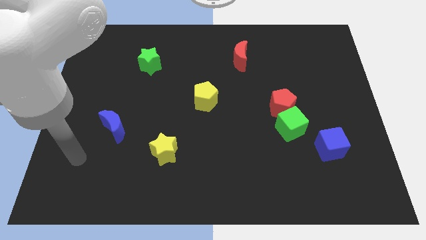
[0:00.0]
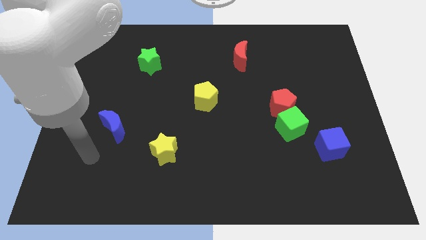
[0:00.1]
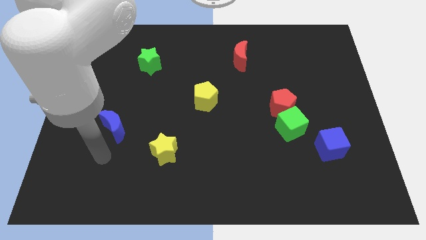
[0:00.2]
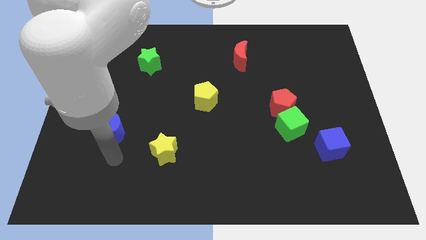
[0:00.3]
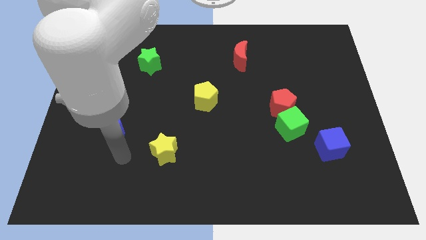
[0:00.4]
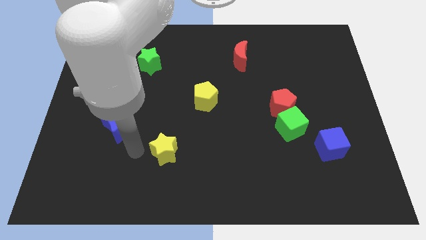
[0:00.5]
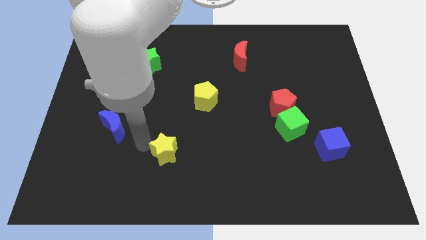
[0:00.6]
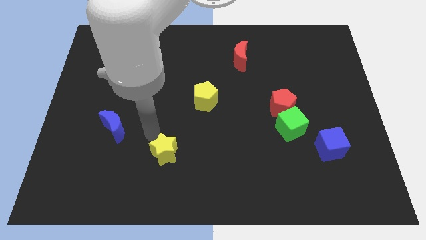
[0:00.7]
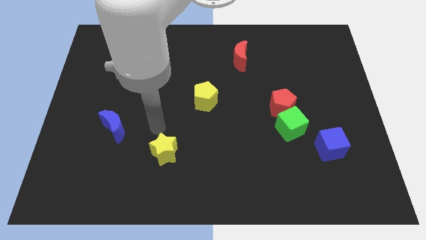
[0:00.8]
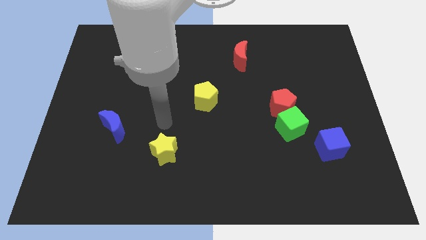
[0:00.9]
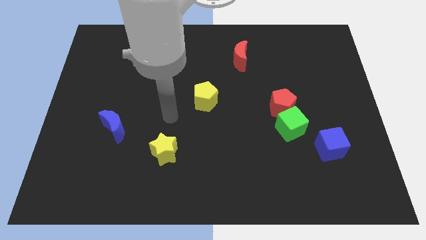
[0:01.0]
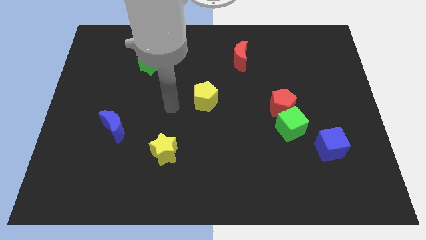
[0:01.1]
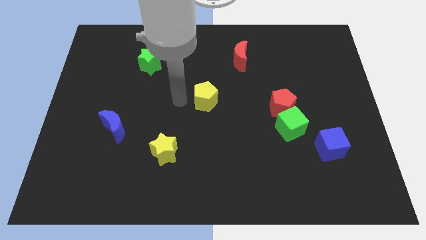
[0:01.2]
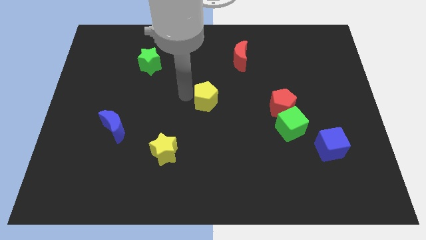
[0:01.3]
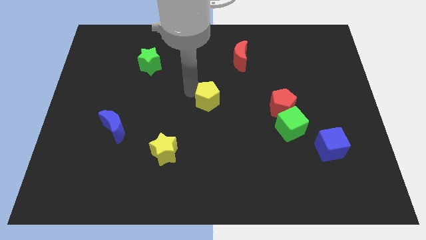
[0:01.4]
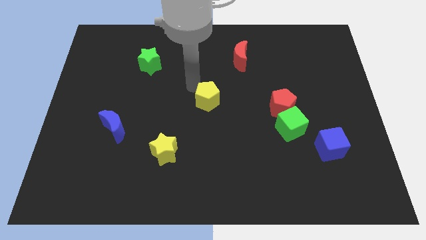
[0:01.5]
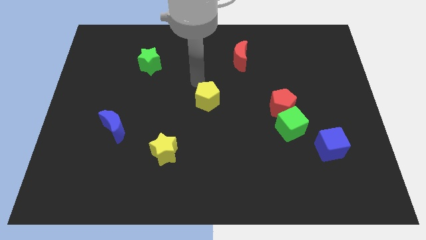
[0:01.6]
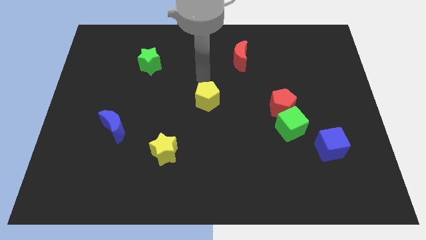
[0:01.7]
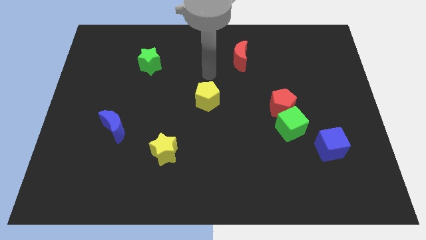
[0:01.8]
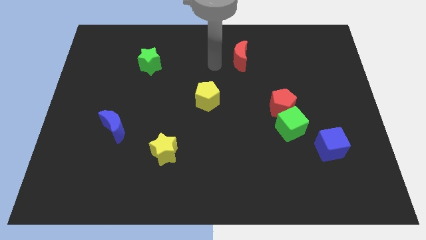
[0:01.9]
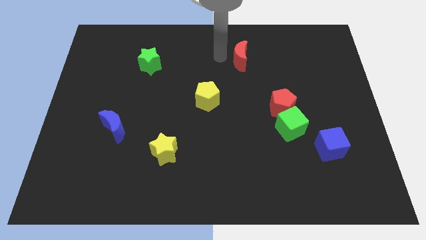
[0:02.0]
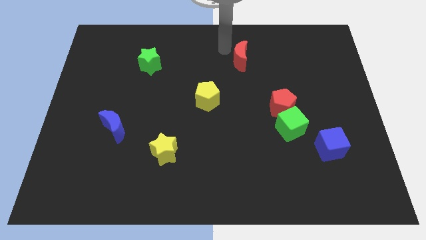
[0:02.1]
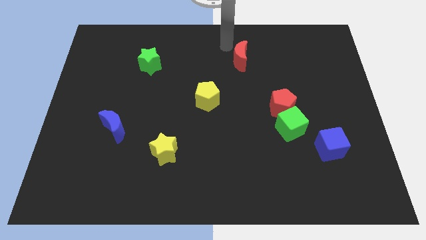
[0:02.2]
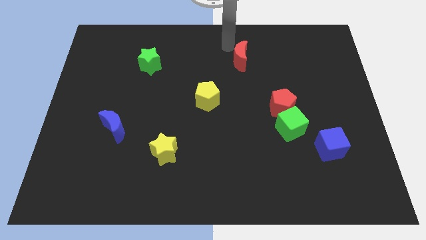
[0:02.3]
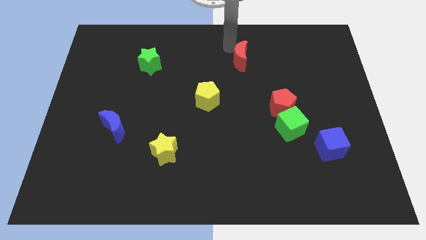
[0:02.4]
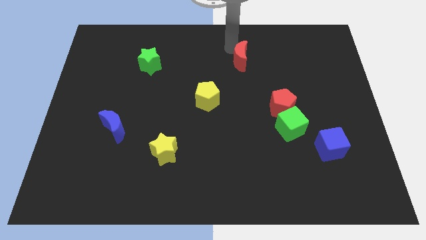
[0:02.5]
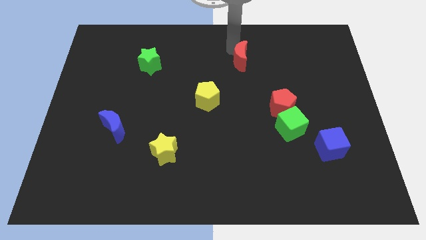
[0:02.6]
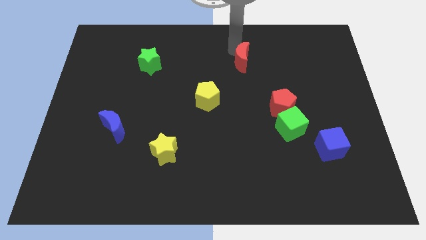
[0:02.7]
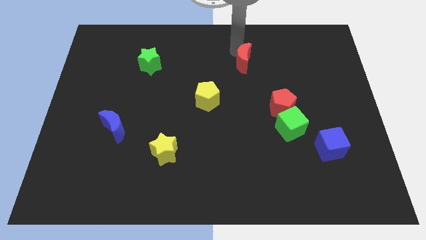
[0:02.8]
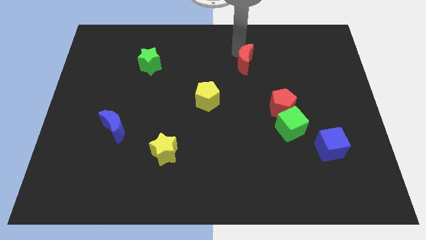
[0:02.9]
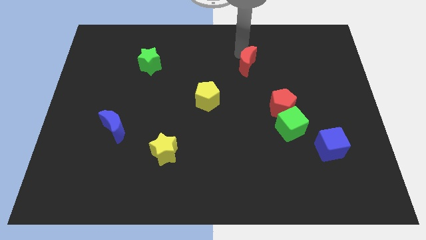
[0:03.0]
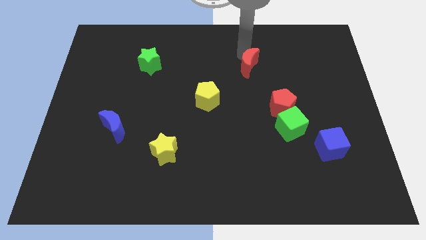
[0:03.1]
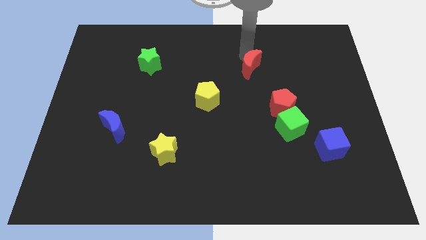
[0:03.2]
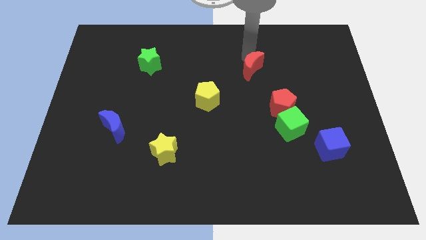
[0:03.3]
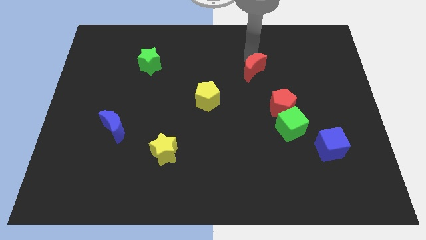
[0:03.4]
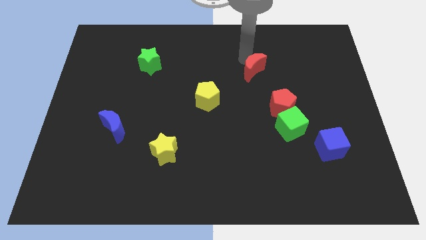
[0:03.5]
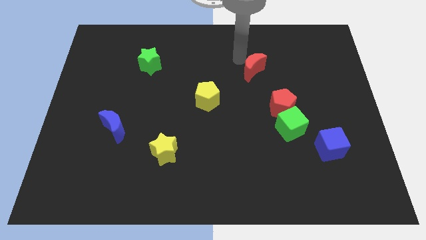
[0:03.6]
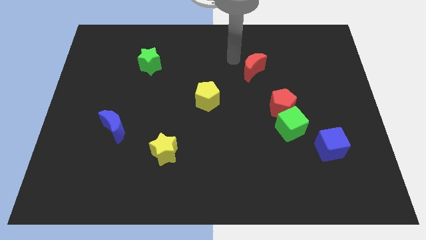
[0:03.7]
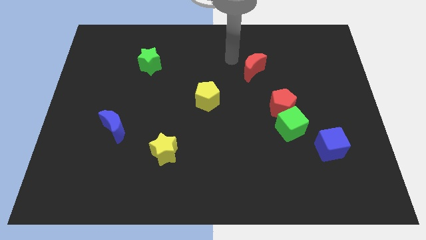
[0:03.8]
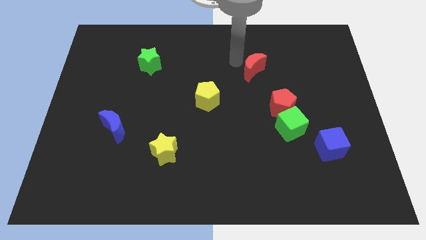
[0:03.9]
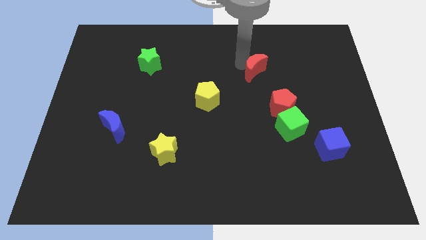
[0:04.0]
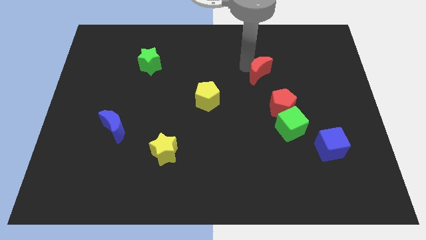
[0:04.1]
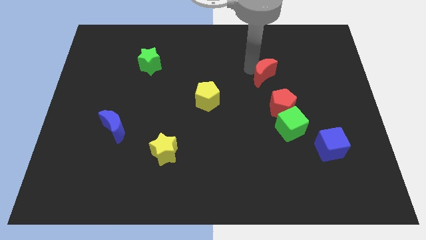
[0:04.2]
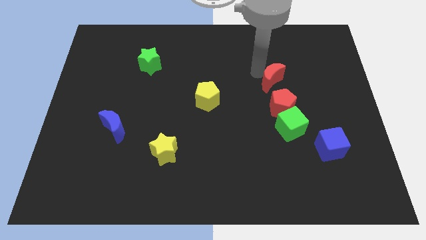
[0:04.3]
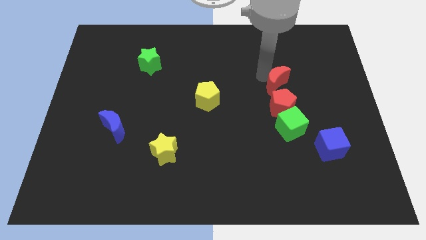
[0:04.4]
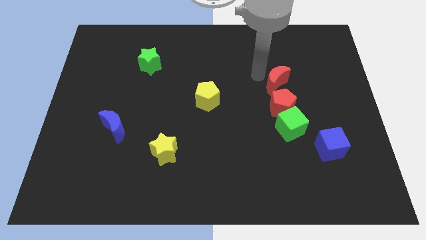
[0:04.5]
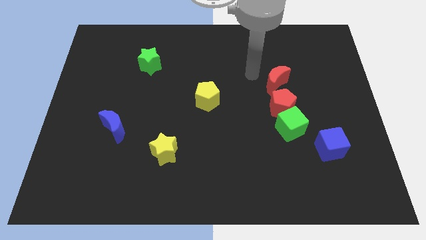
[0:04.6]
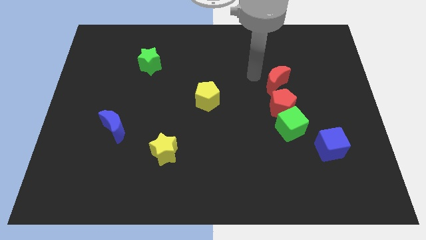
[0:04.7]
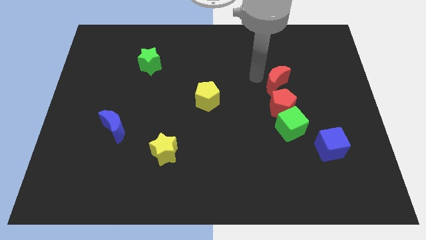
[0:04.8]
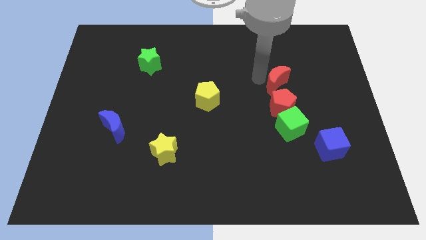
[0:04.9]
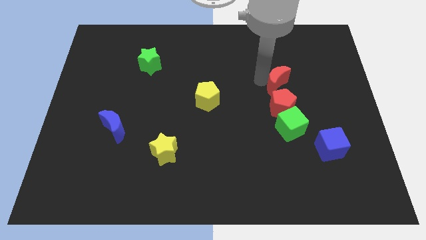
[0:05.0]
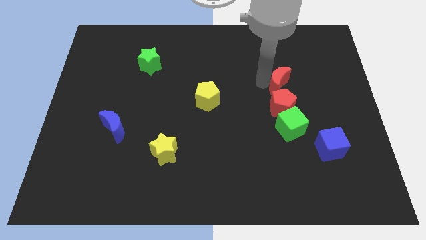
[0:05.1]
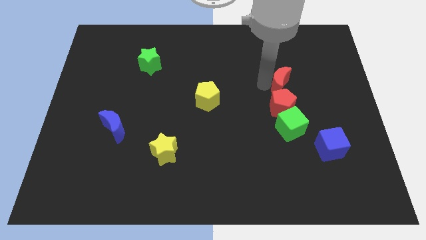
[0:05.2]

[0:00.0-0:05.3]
put the red moon to the top right side of the red pentagon

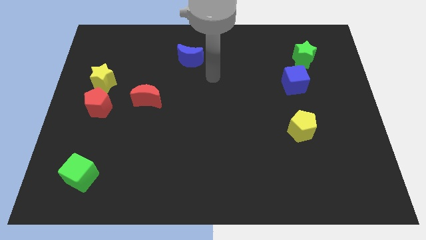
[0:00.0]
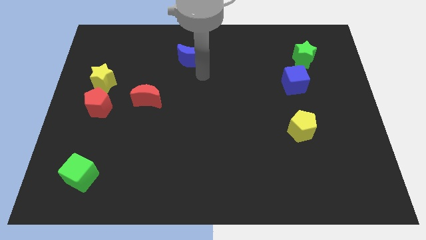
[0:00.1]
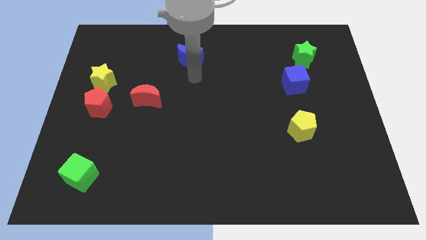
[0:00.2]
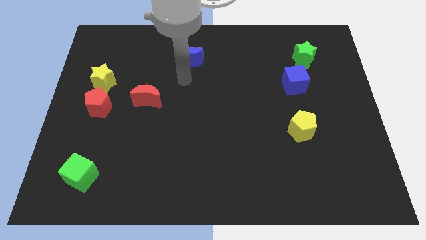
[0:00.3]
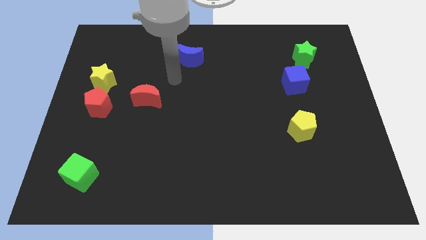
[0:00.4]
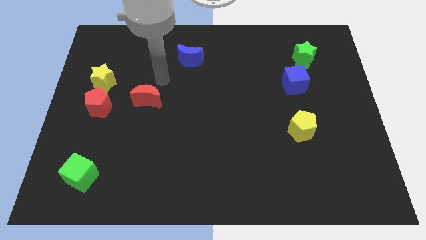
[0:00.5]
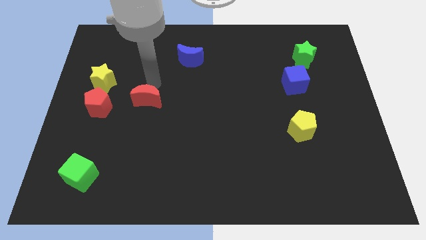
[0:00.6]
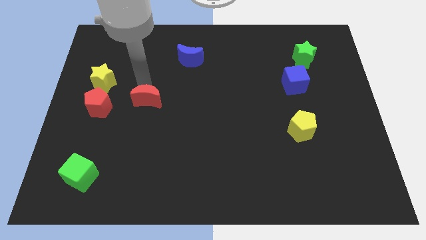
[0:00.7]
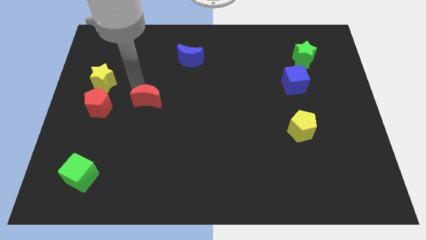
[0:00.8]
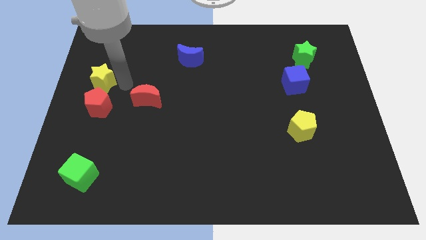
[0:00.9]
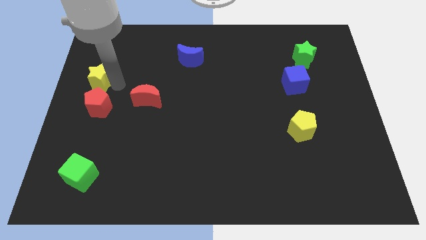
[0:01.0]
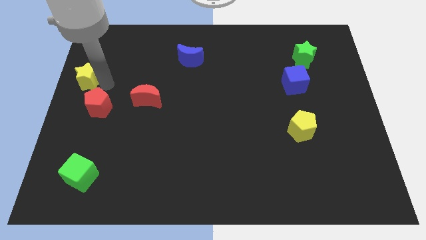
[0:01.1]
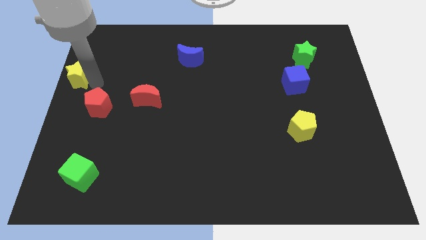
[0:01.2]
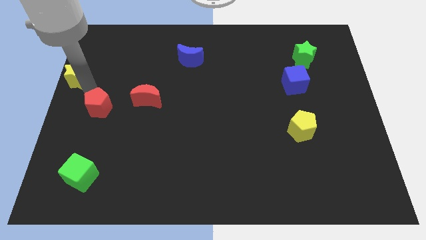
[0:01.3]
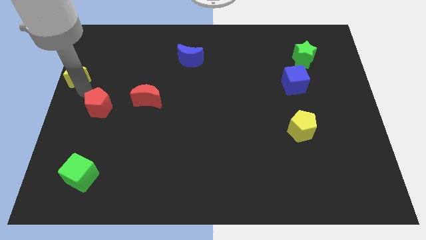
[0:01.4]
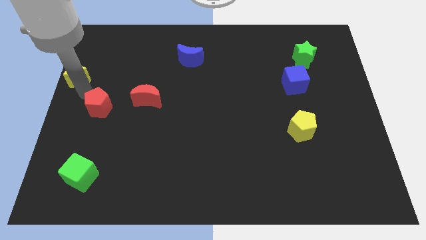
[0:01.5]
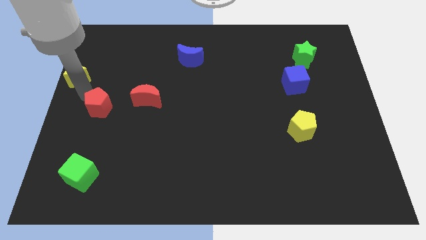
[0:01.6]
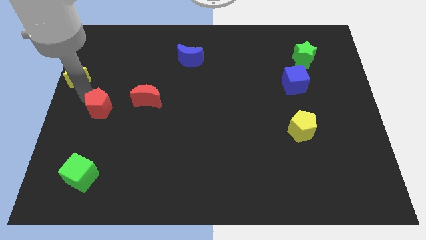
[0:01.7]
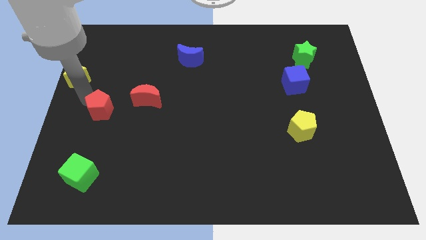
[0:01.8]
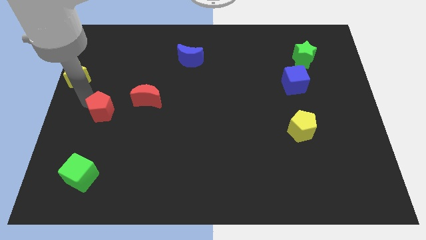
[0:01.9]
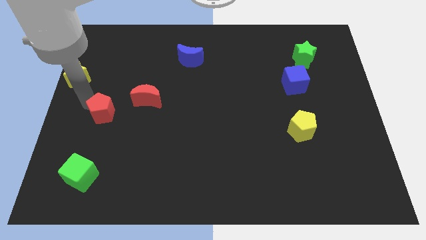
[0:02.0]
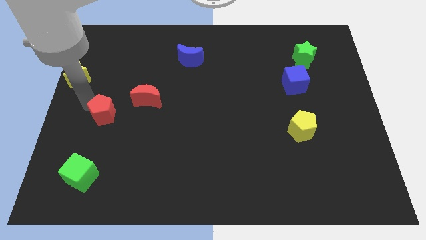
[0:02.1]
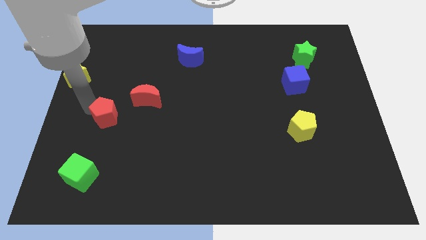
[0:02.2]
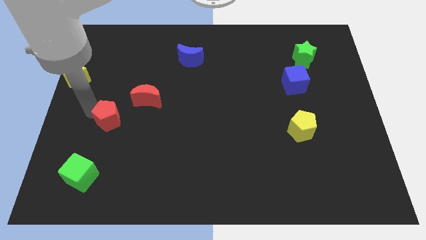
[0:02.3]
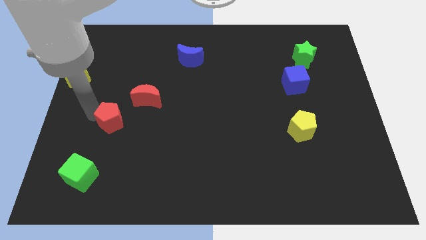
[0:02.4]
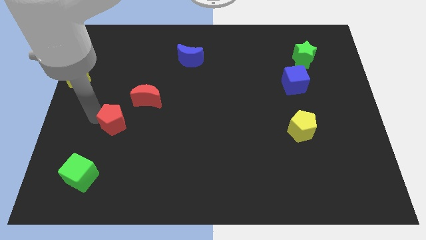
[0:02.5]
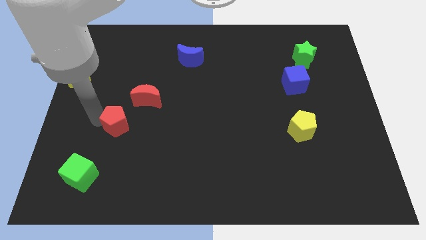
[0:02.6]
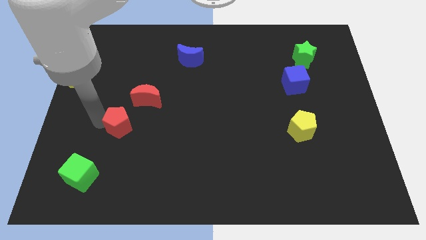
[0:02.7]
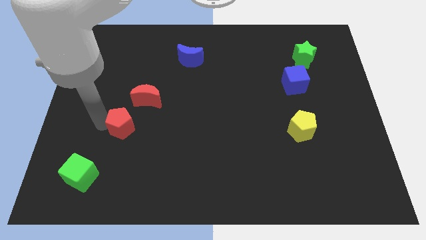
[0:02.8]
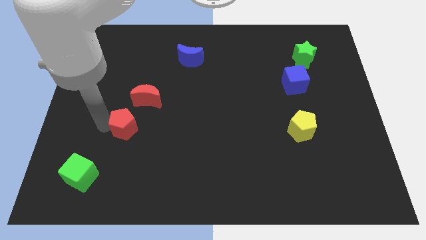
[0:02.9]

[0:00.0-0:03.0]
move the red pentagon to the bottom side of the red moon
